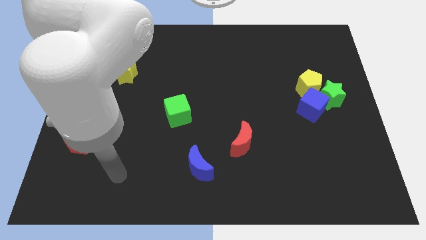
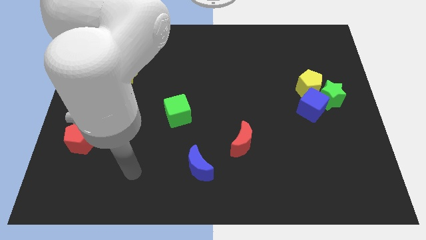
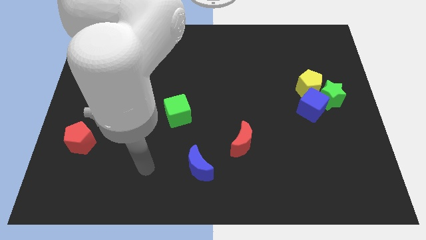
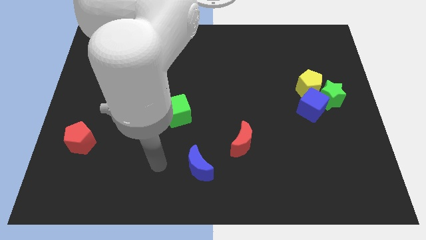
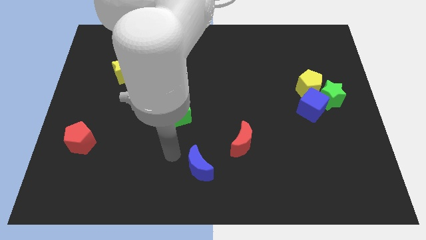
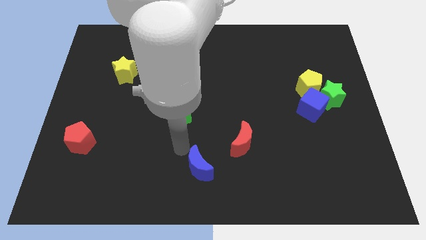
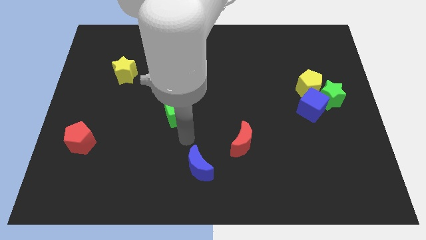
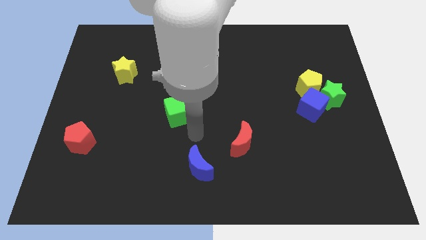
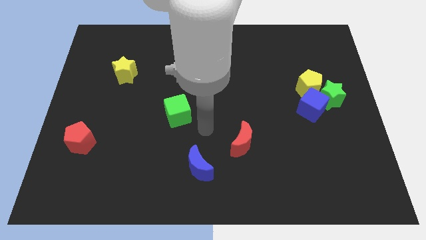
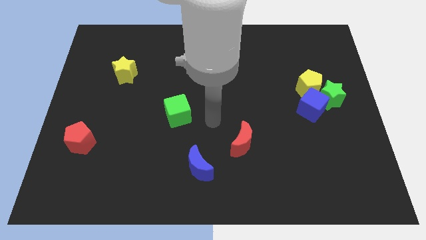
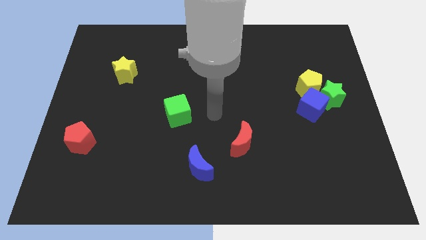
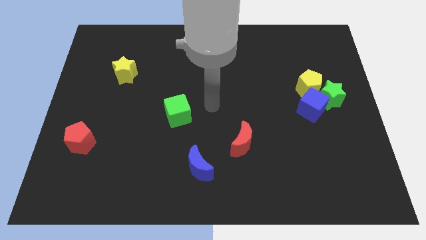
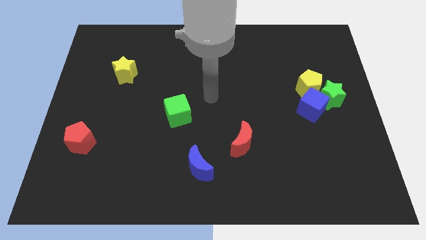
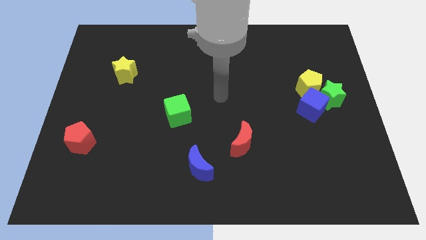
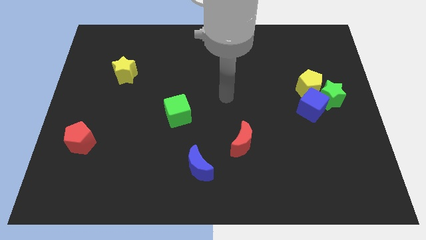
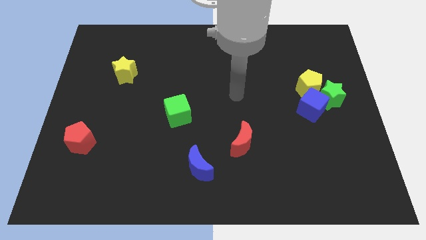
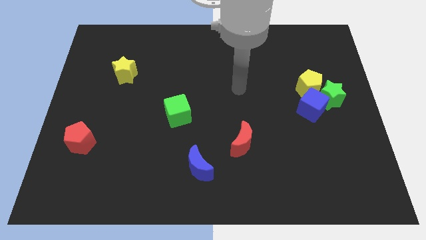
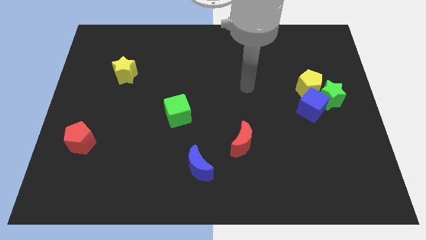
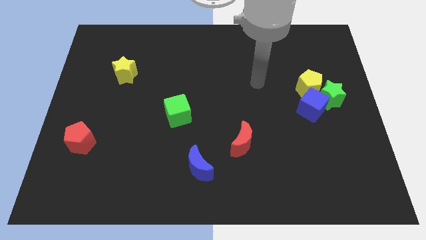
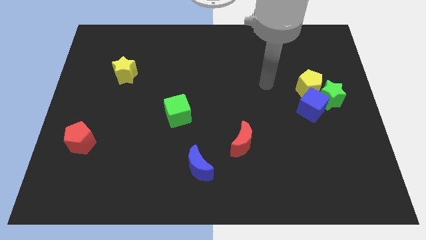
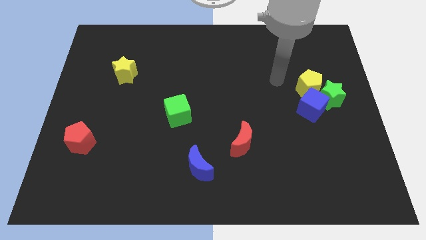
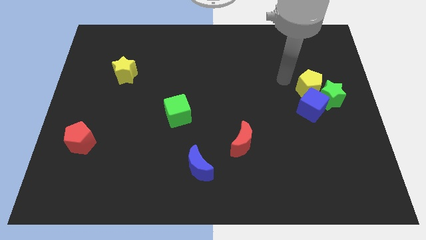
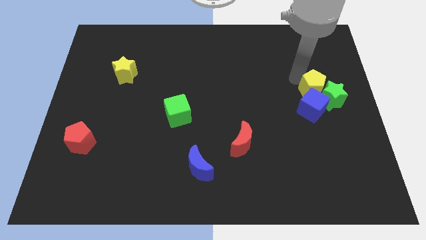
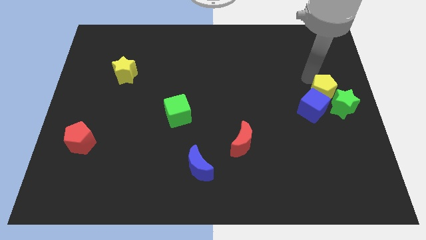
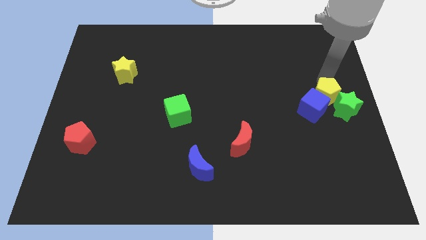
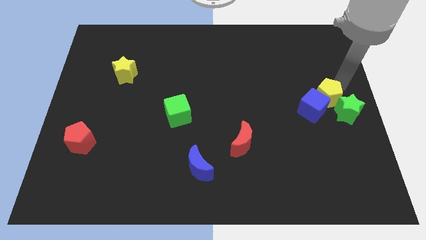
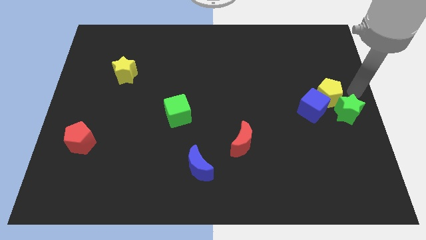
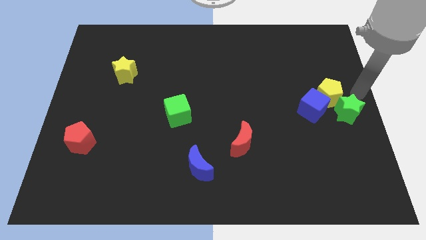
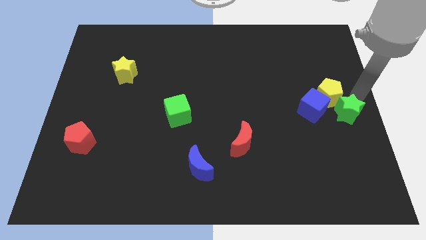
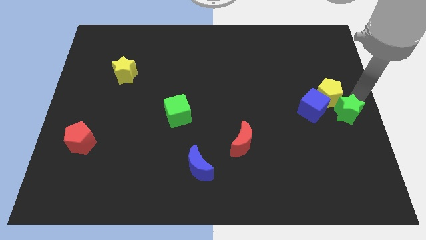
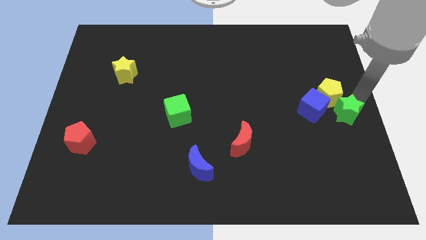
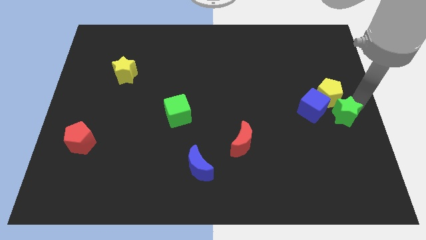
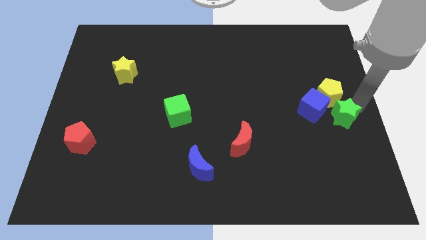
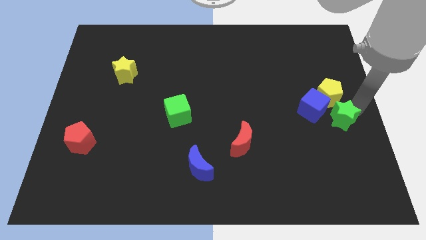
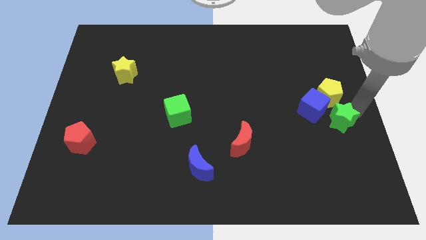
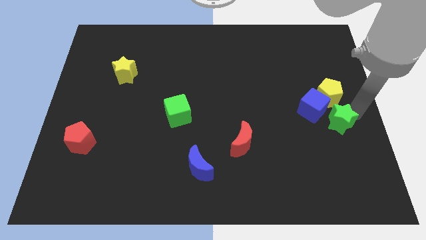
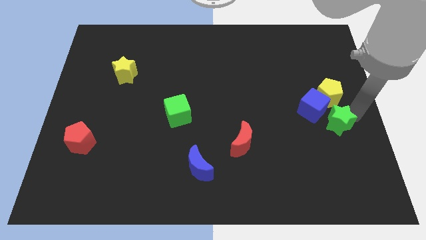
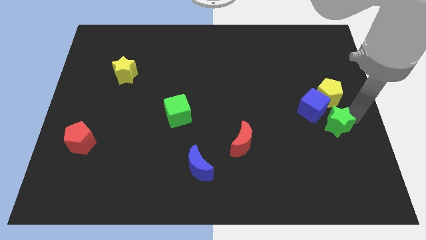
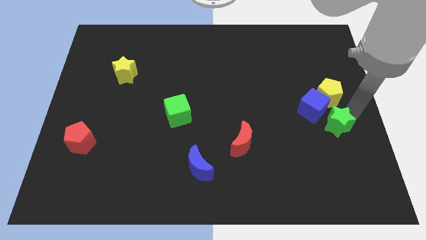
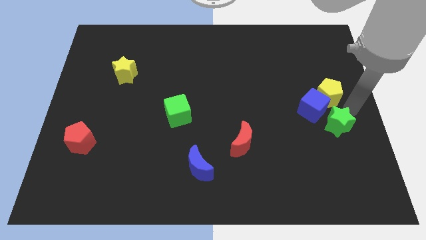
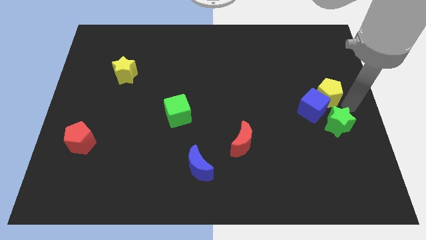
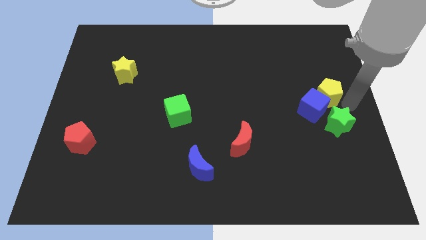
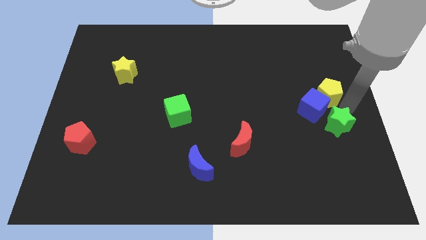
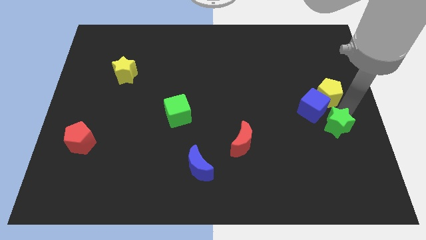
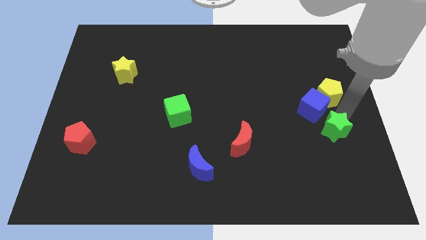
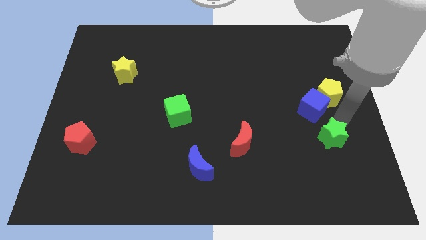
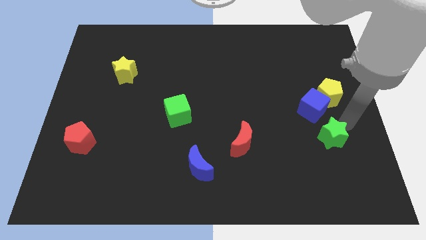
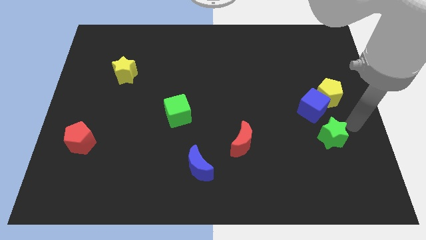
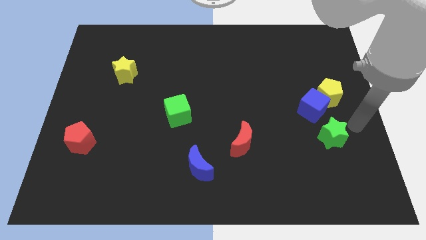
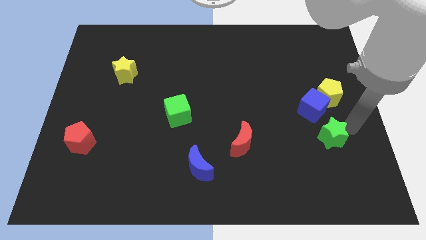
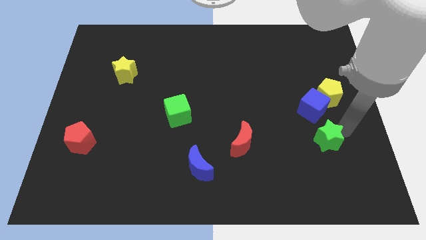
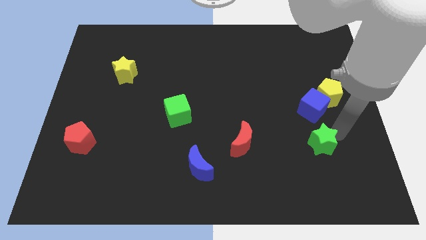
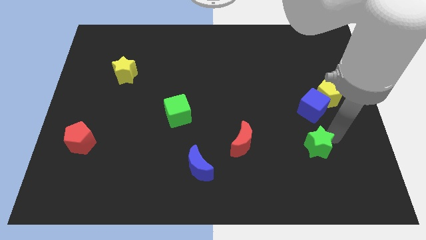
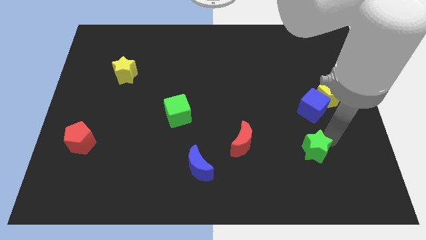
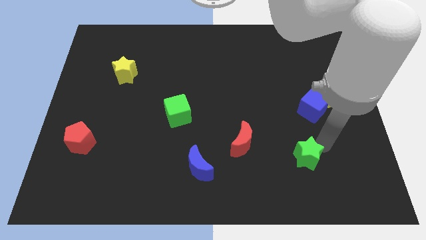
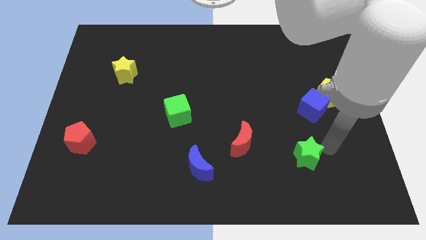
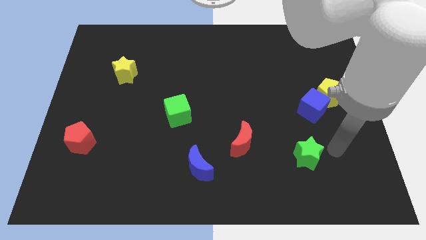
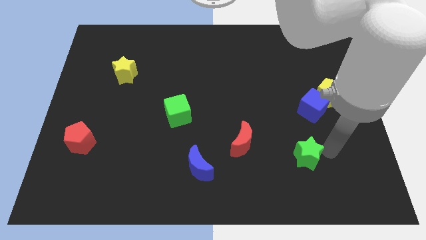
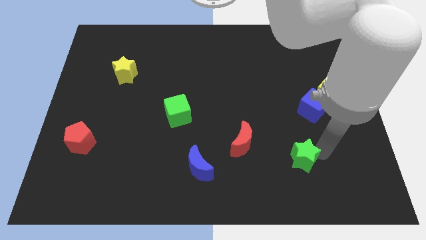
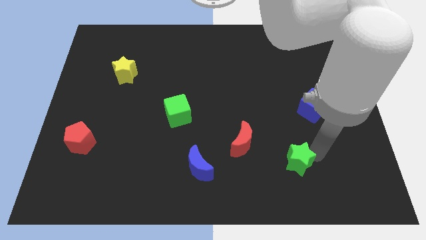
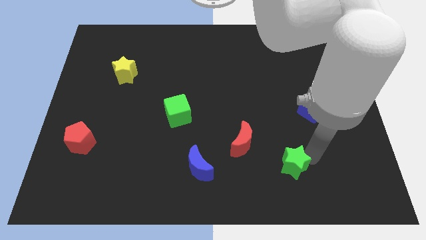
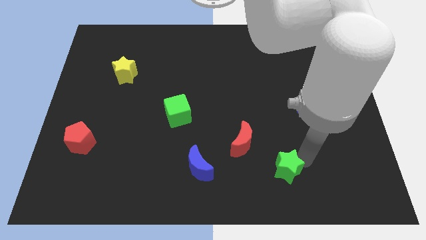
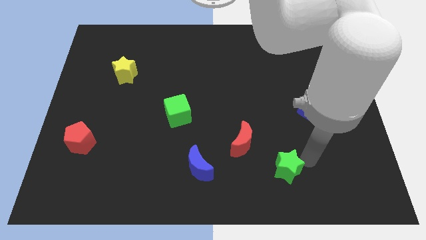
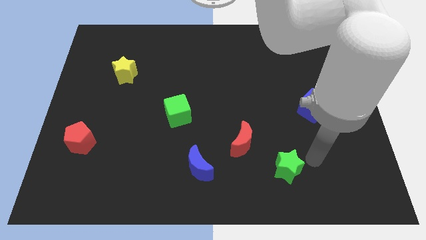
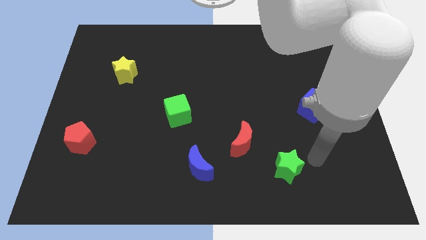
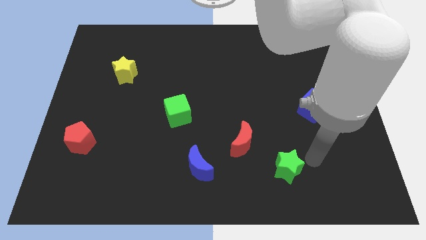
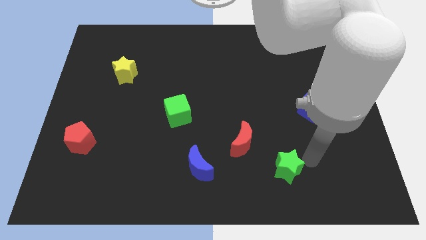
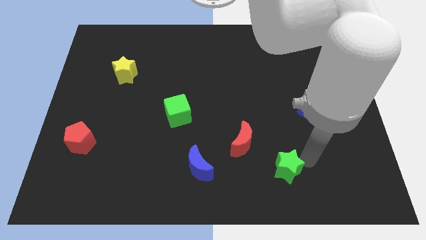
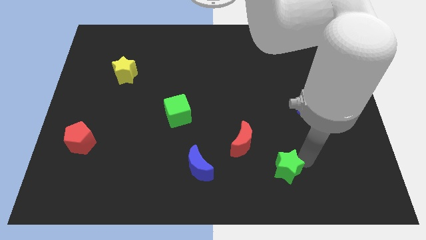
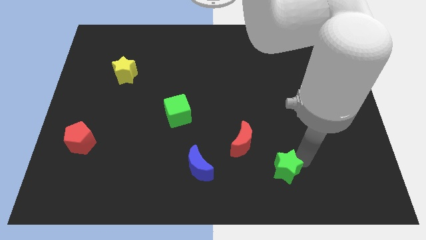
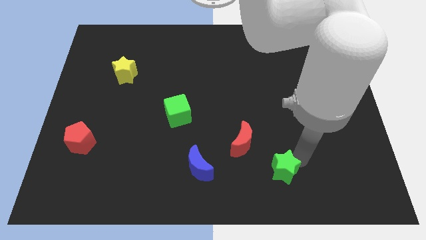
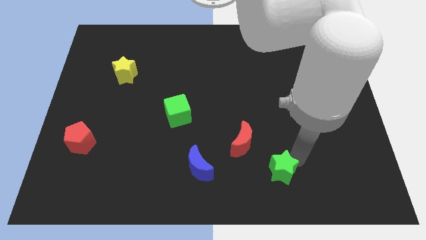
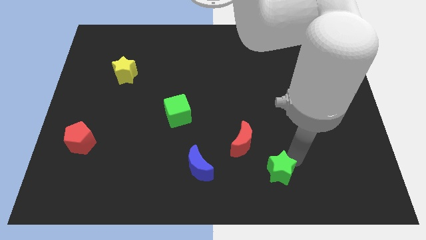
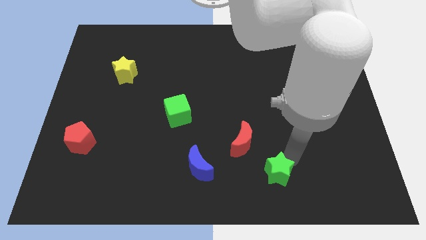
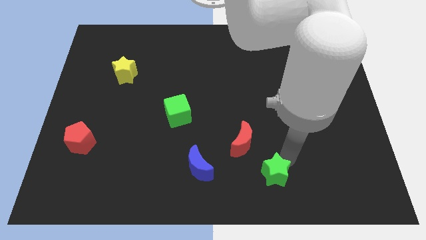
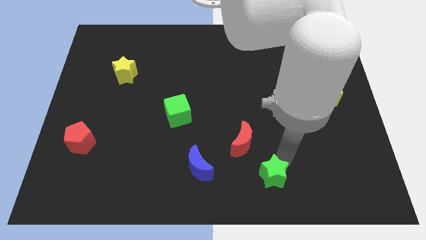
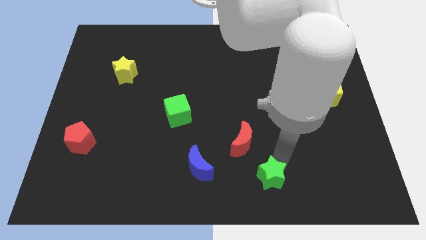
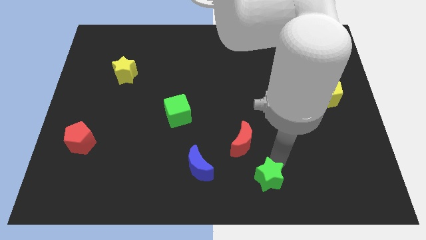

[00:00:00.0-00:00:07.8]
slide the green star to the bottom side
